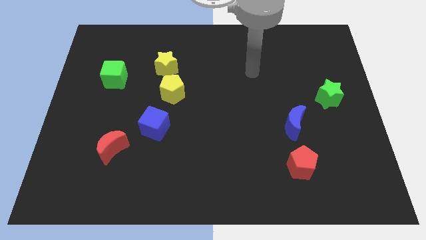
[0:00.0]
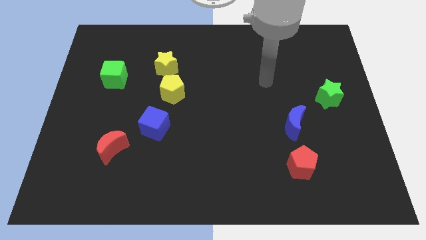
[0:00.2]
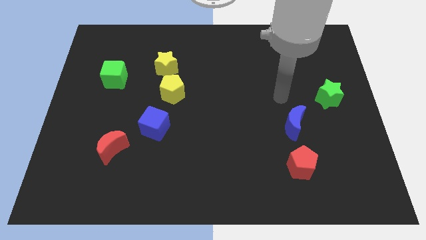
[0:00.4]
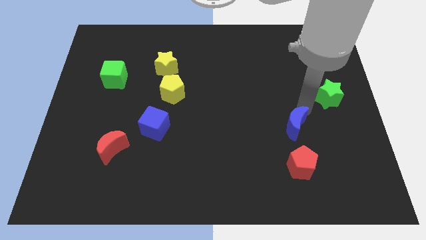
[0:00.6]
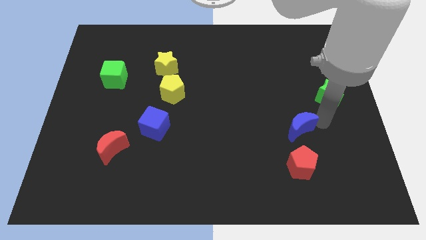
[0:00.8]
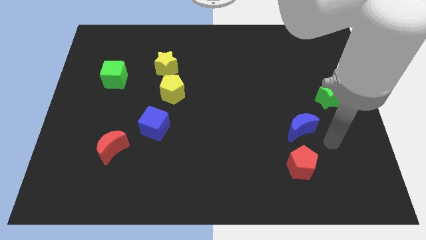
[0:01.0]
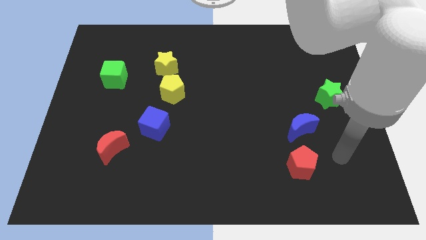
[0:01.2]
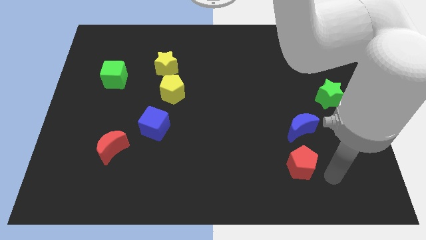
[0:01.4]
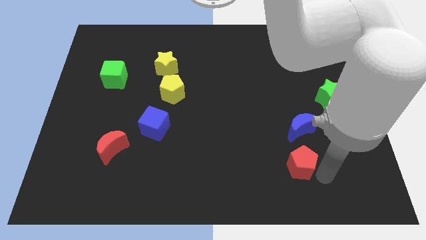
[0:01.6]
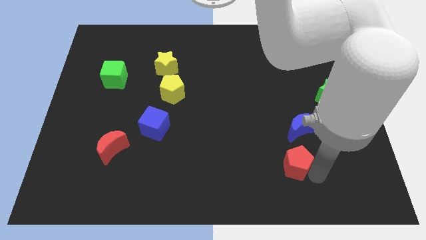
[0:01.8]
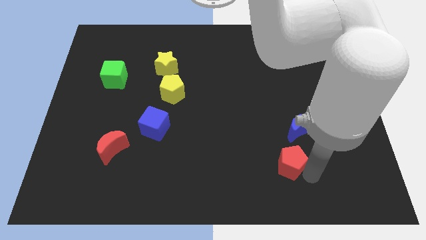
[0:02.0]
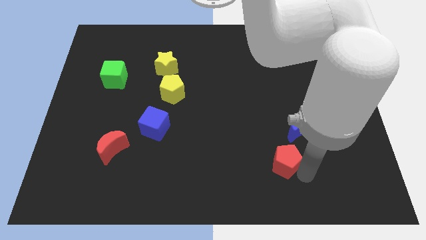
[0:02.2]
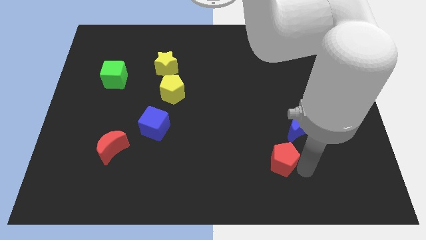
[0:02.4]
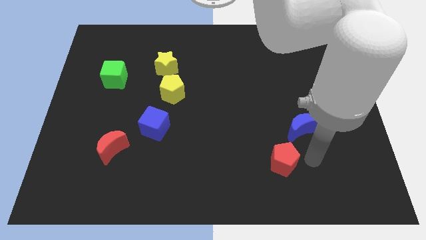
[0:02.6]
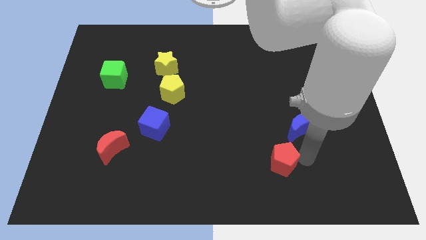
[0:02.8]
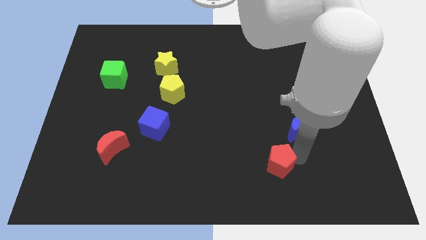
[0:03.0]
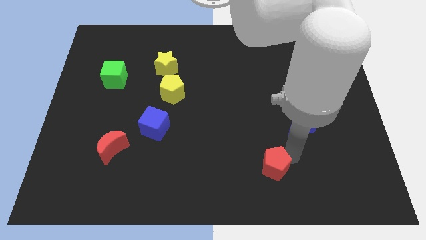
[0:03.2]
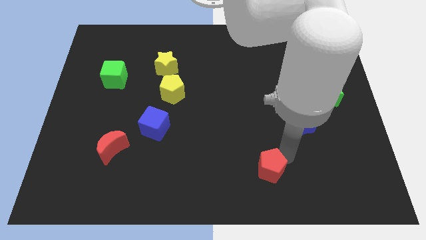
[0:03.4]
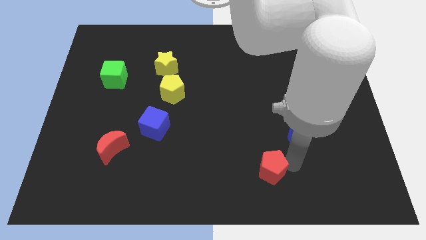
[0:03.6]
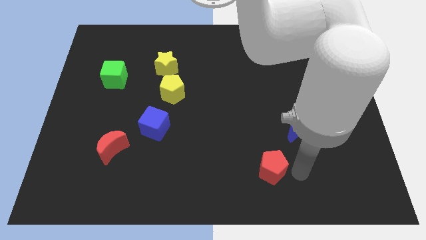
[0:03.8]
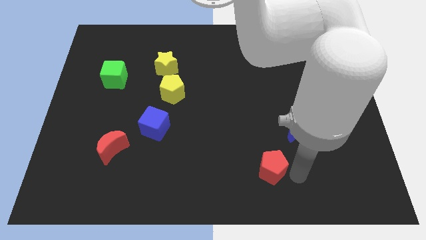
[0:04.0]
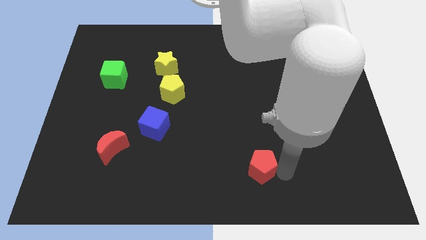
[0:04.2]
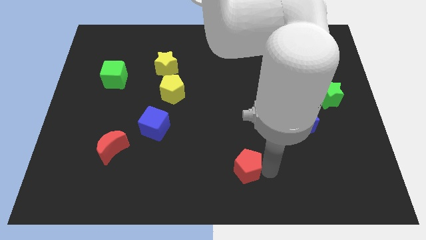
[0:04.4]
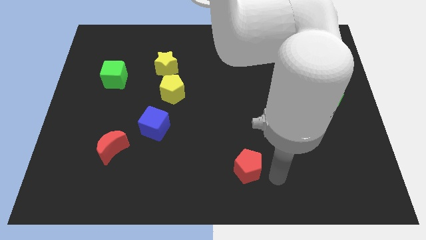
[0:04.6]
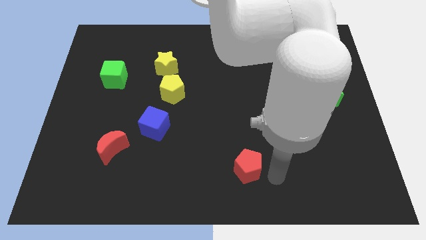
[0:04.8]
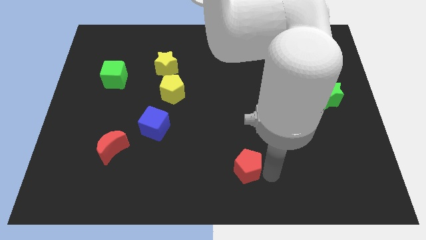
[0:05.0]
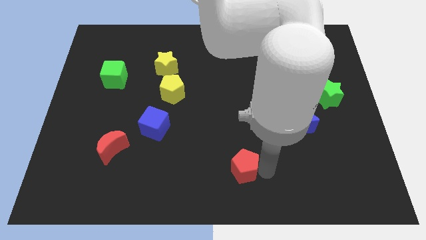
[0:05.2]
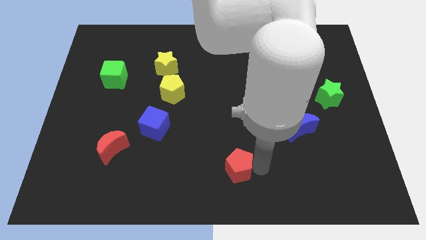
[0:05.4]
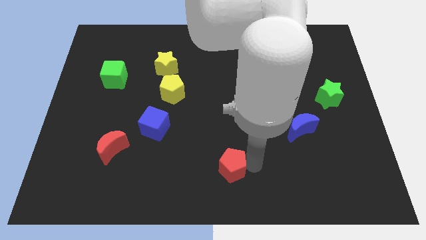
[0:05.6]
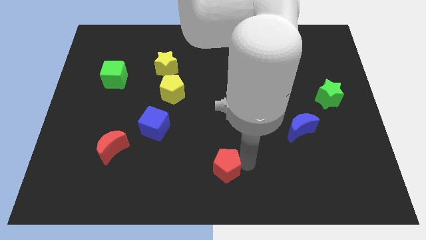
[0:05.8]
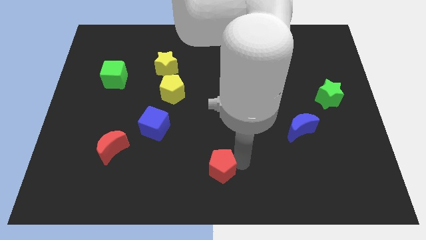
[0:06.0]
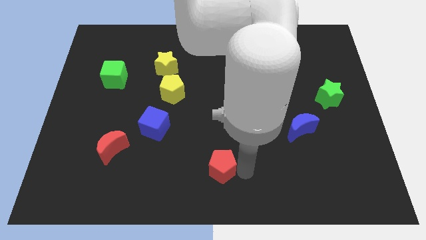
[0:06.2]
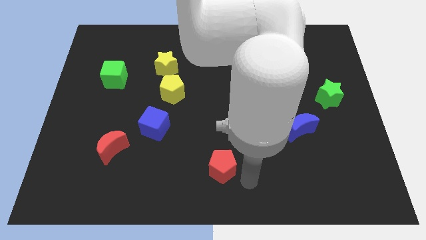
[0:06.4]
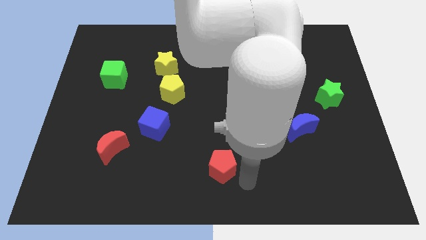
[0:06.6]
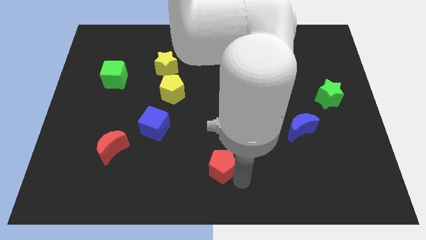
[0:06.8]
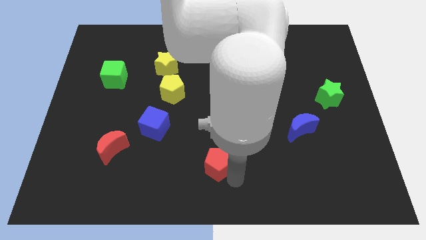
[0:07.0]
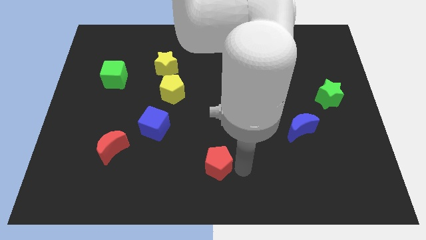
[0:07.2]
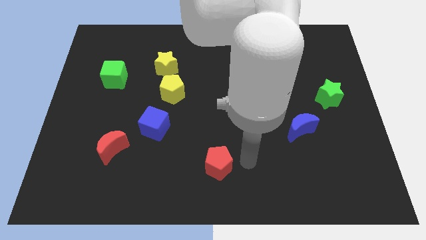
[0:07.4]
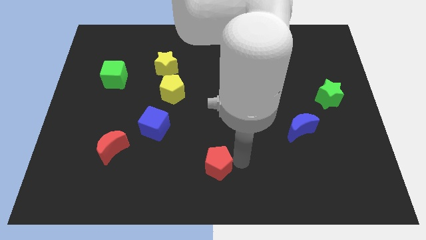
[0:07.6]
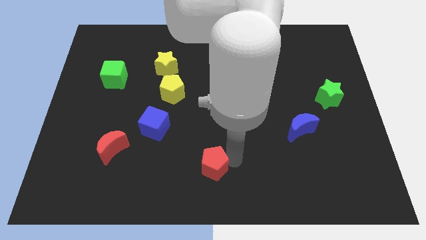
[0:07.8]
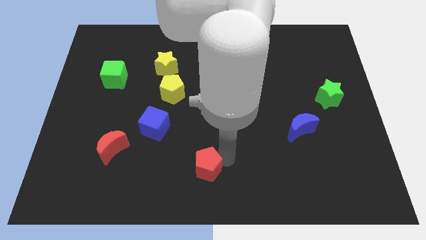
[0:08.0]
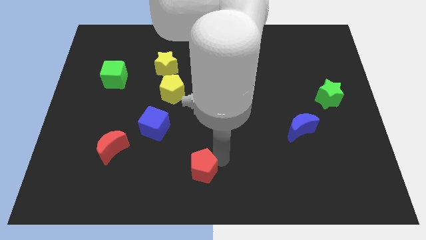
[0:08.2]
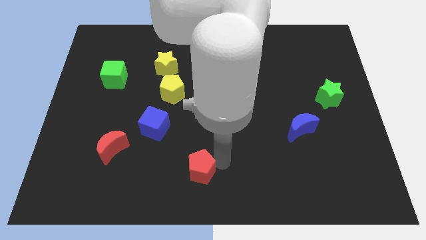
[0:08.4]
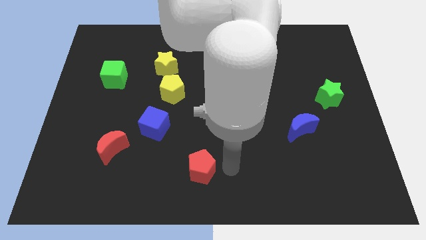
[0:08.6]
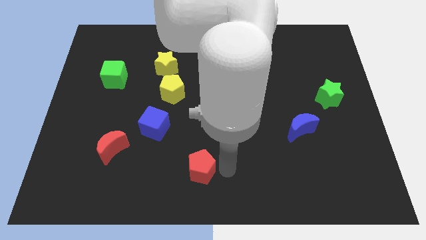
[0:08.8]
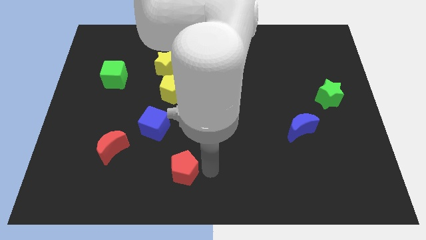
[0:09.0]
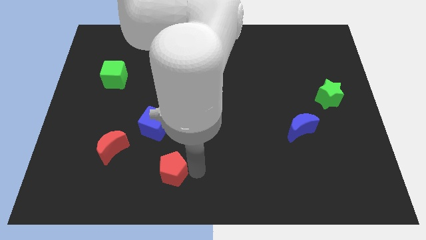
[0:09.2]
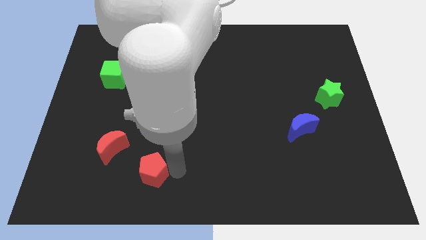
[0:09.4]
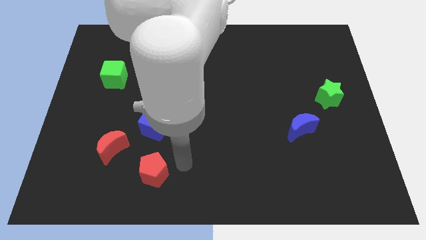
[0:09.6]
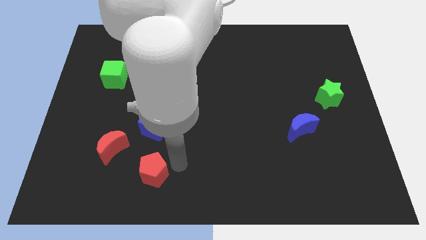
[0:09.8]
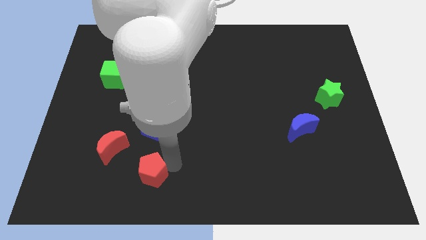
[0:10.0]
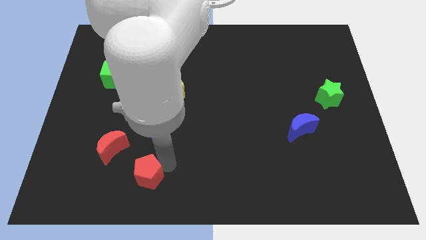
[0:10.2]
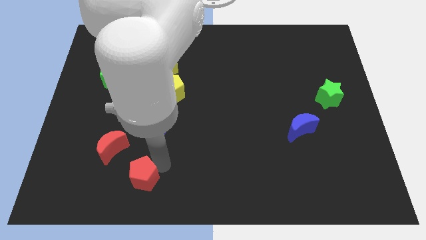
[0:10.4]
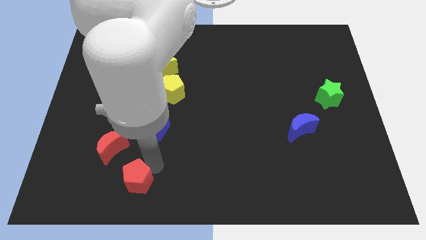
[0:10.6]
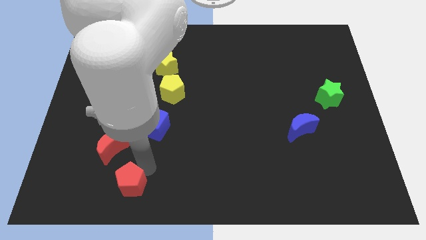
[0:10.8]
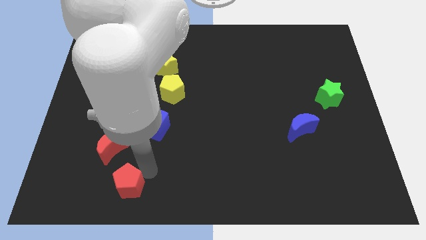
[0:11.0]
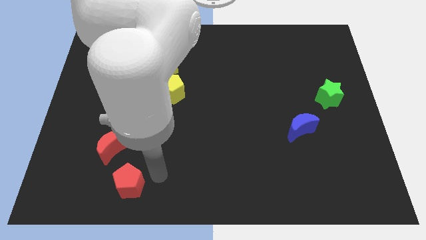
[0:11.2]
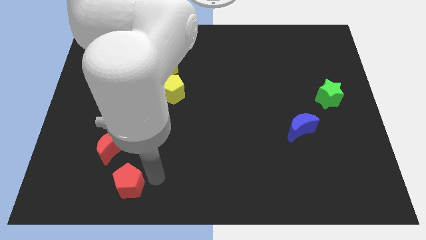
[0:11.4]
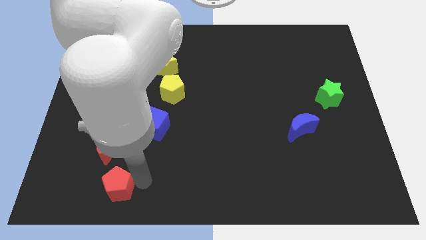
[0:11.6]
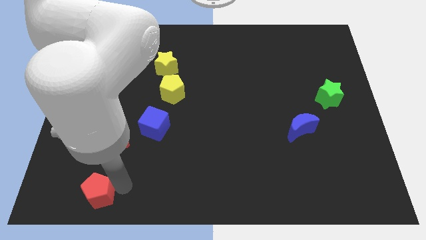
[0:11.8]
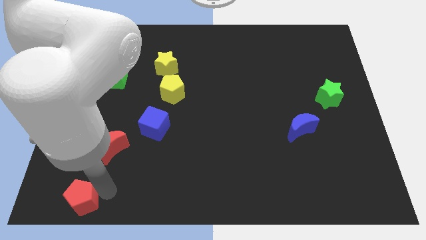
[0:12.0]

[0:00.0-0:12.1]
put the red pentagon to the bottom left corner
